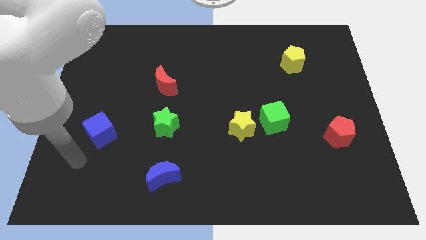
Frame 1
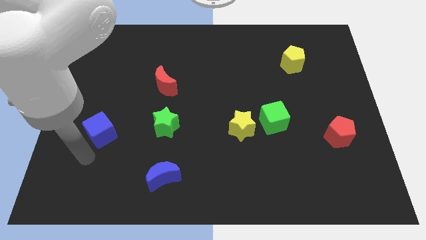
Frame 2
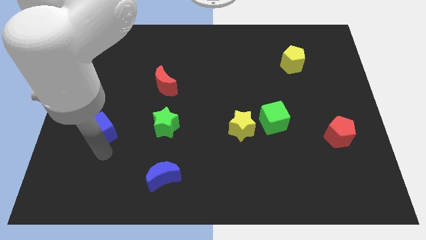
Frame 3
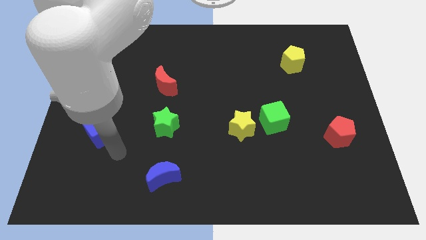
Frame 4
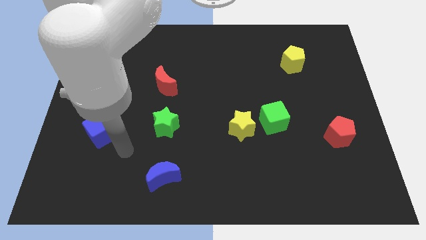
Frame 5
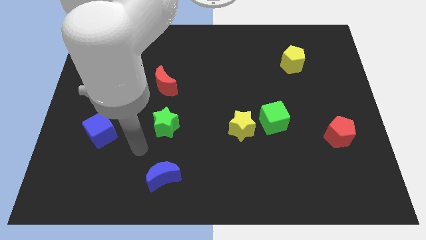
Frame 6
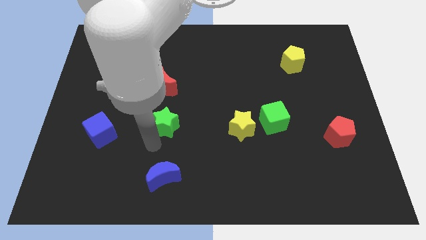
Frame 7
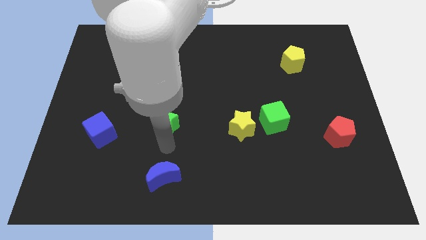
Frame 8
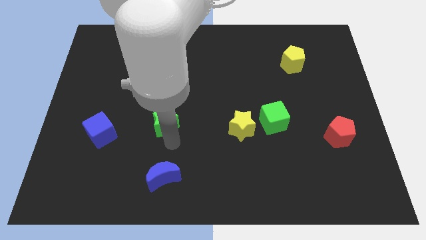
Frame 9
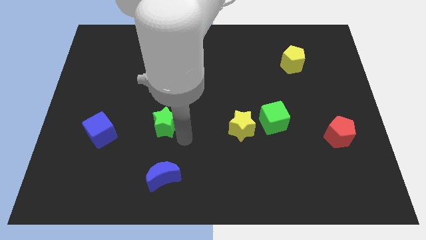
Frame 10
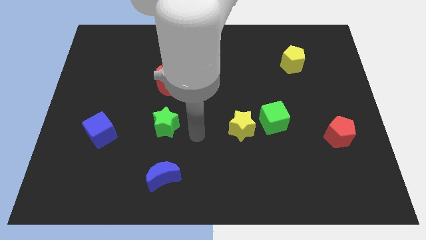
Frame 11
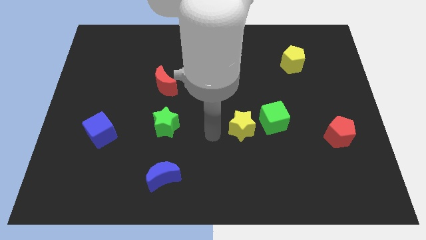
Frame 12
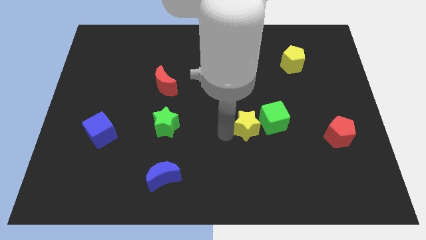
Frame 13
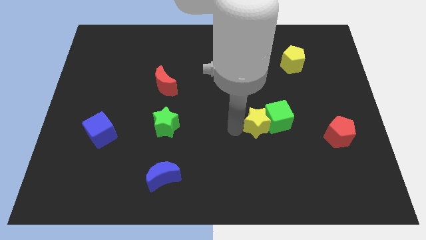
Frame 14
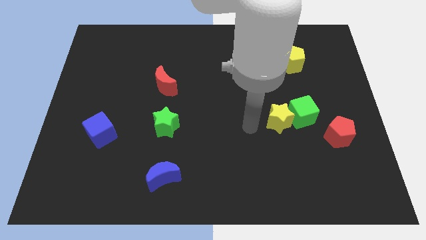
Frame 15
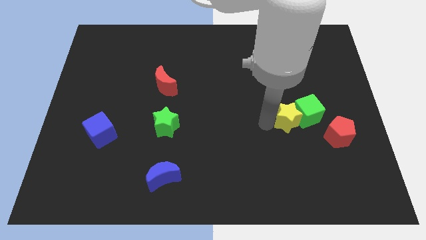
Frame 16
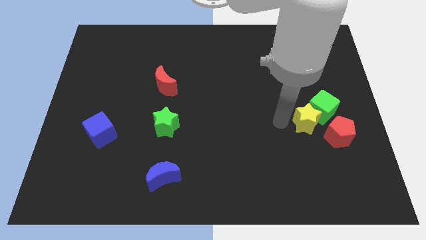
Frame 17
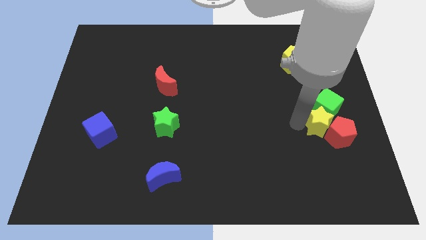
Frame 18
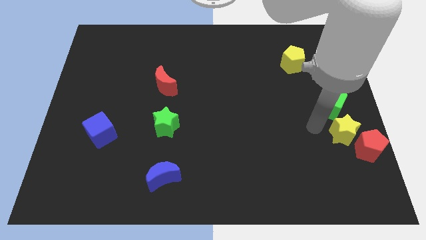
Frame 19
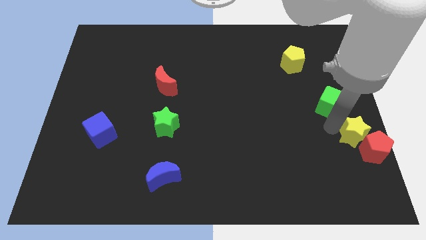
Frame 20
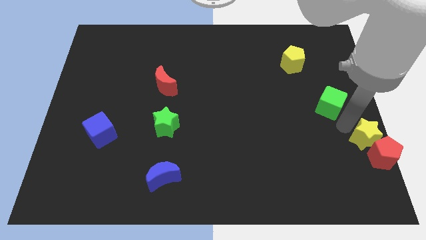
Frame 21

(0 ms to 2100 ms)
move the green cube away from the yellow star

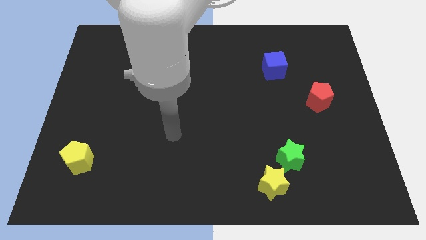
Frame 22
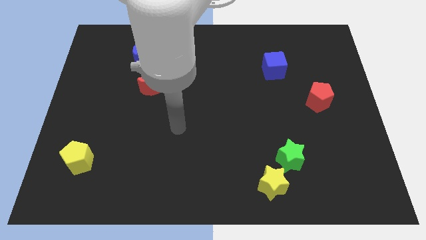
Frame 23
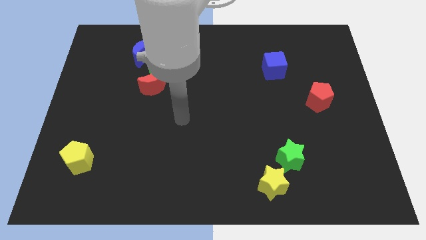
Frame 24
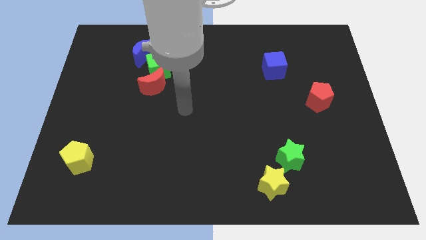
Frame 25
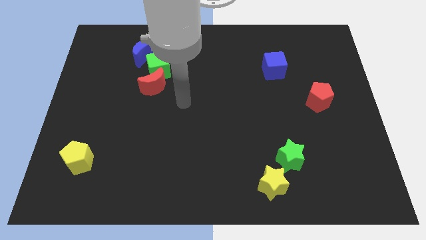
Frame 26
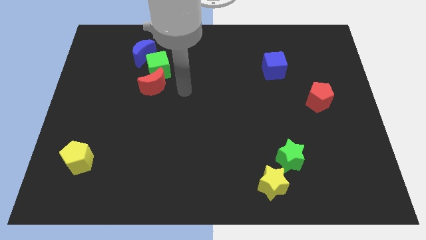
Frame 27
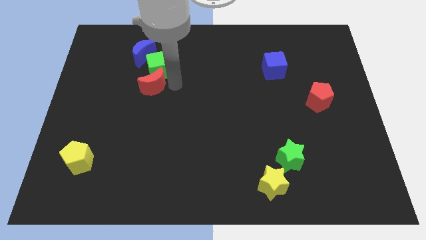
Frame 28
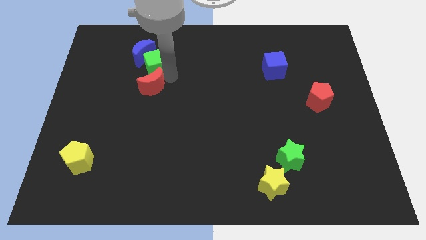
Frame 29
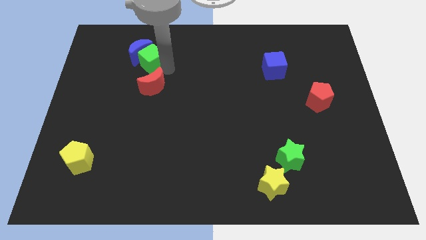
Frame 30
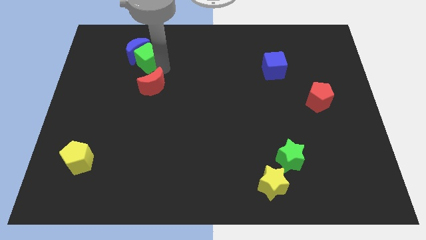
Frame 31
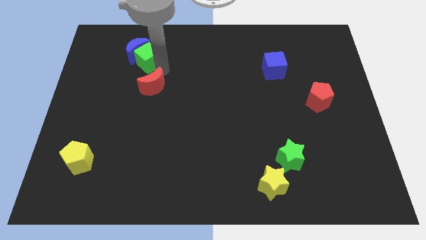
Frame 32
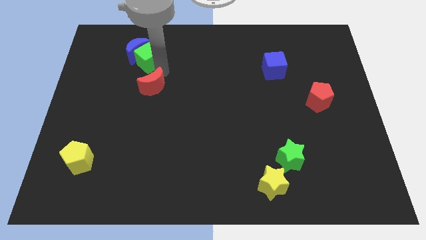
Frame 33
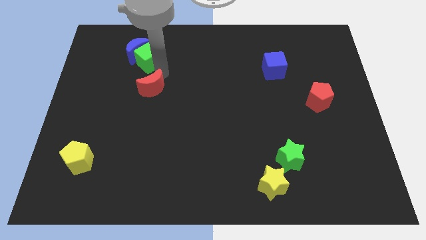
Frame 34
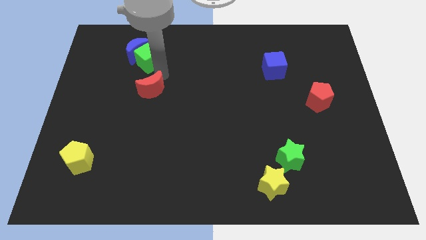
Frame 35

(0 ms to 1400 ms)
move the red moon away from the green cube

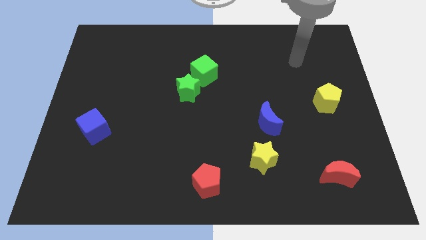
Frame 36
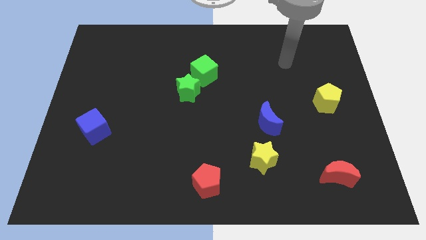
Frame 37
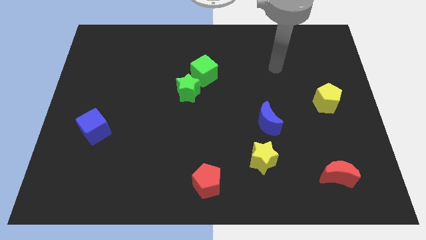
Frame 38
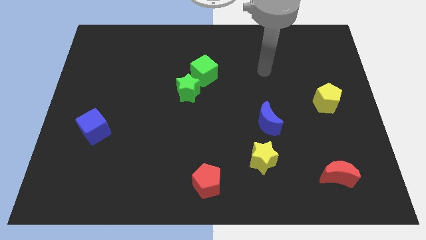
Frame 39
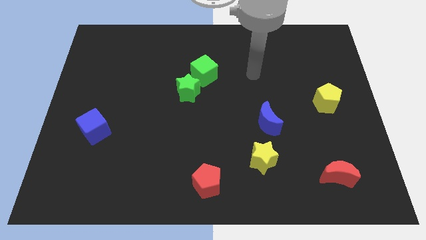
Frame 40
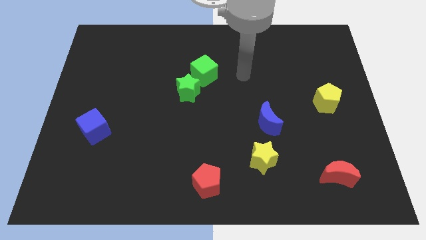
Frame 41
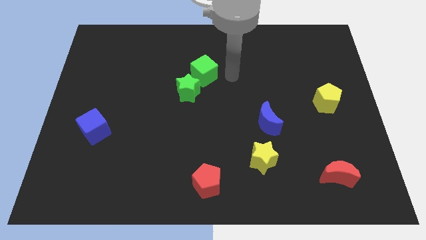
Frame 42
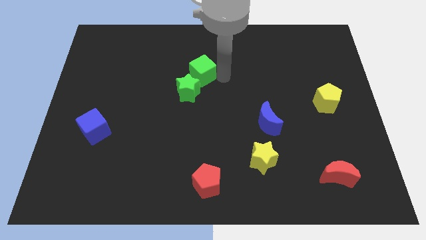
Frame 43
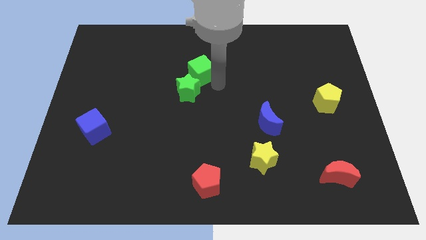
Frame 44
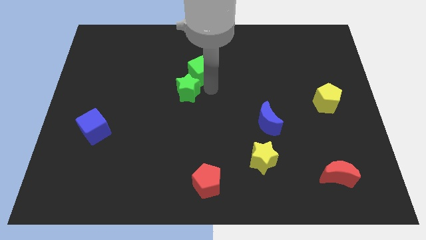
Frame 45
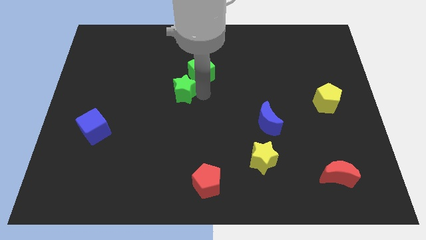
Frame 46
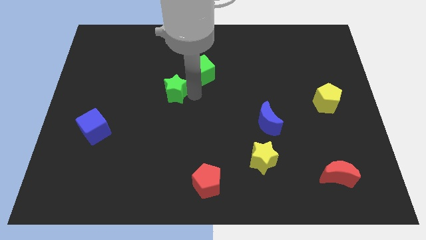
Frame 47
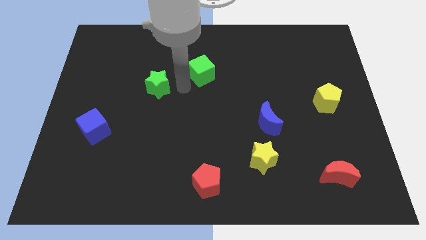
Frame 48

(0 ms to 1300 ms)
separate the green cube from the green star

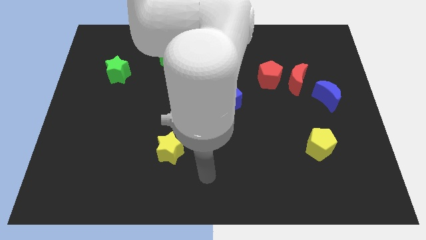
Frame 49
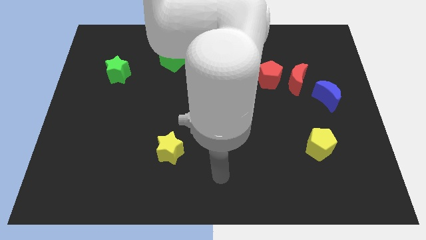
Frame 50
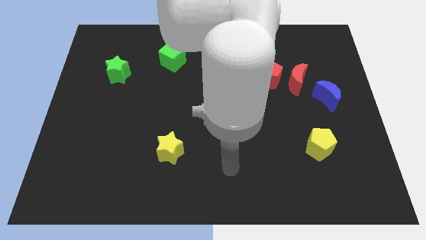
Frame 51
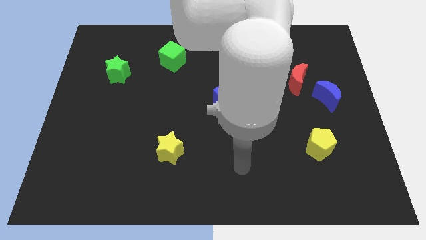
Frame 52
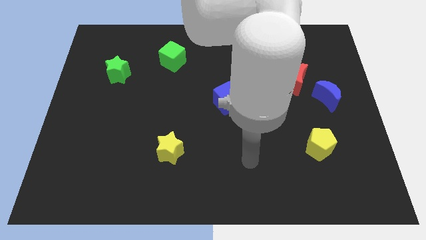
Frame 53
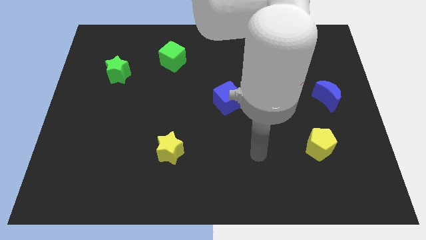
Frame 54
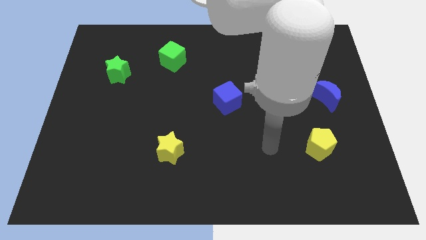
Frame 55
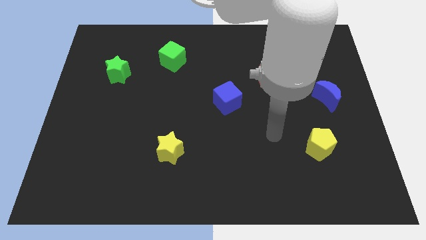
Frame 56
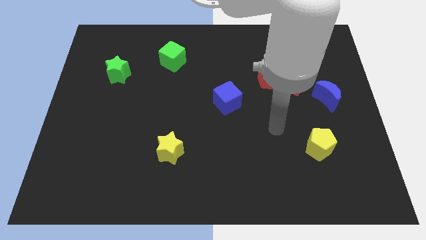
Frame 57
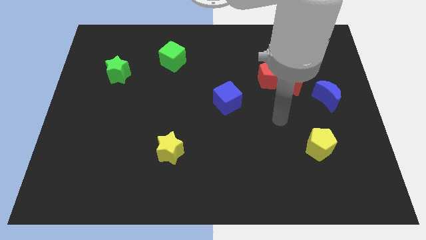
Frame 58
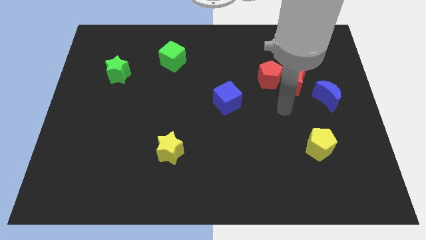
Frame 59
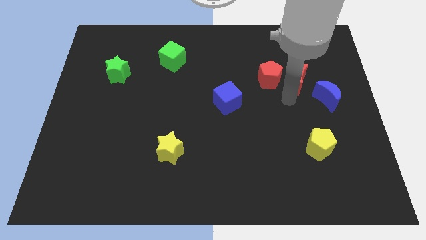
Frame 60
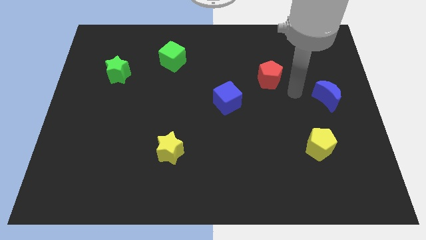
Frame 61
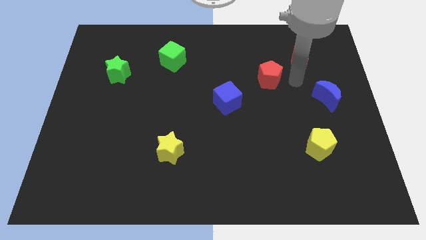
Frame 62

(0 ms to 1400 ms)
pull the red pentagon apart from the red moon

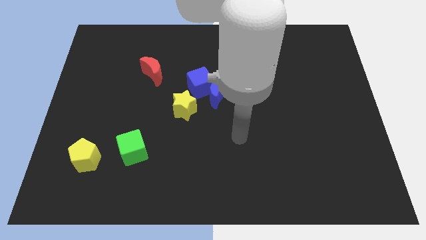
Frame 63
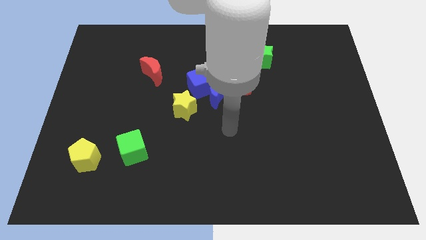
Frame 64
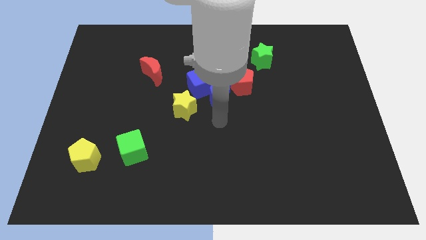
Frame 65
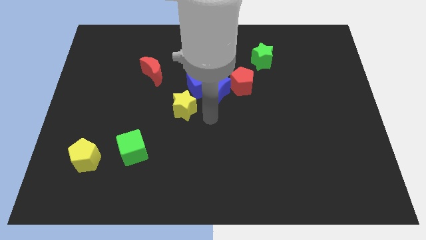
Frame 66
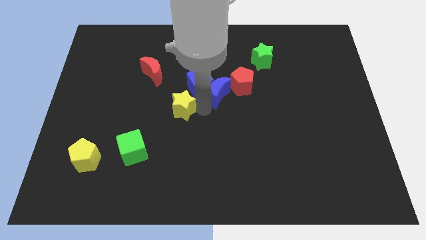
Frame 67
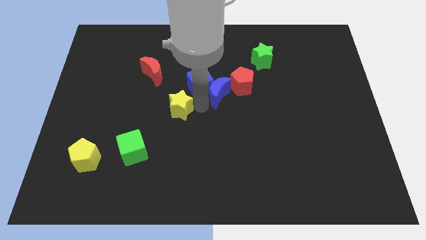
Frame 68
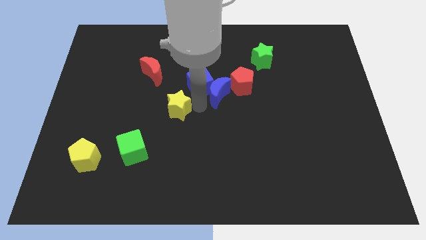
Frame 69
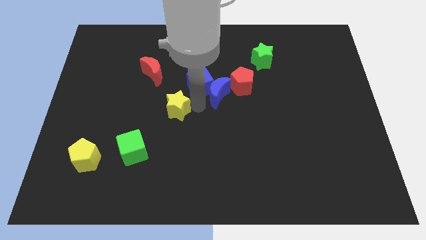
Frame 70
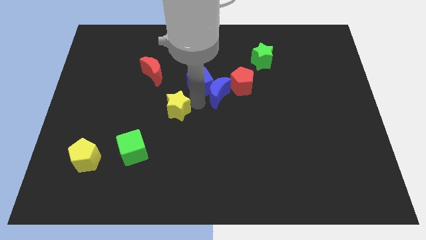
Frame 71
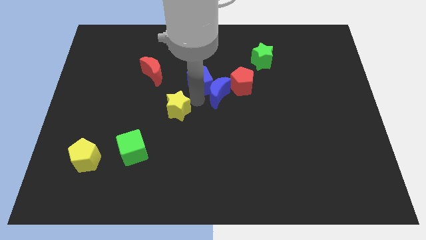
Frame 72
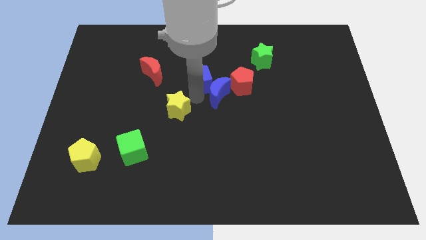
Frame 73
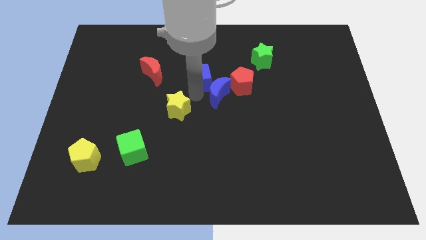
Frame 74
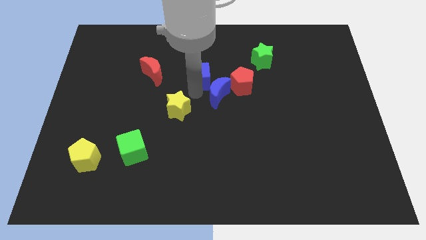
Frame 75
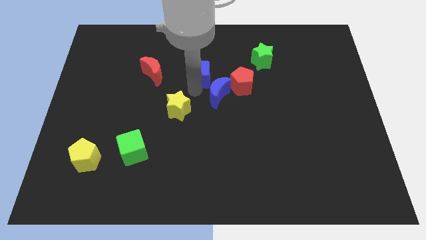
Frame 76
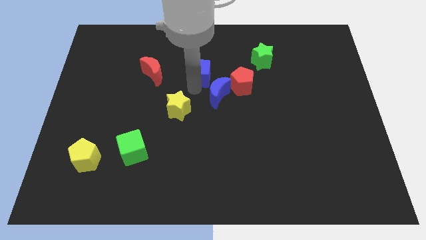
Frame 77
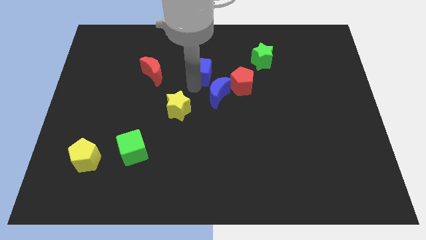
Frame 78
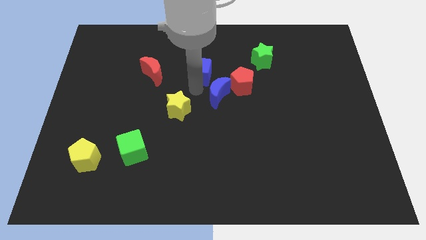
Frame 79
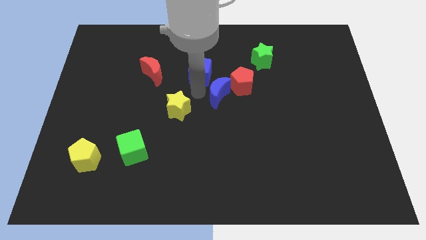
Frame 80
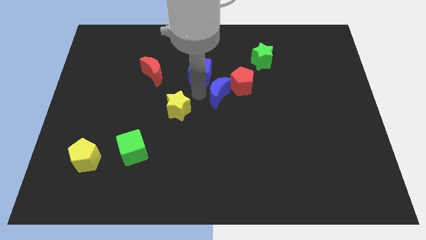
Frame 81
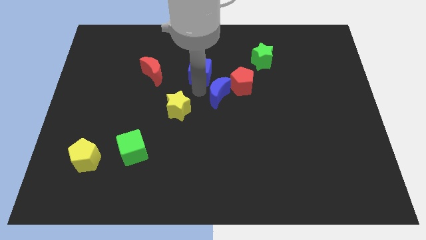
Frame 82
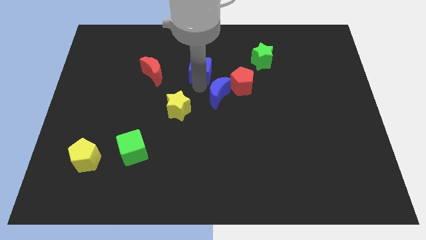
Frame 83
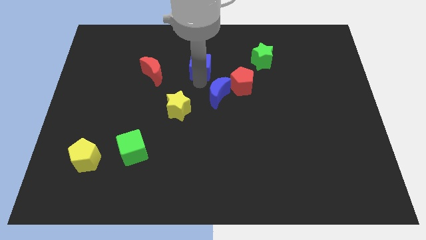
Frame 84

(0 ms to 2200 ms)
separate the blue cube from the blue moon and yellow star

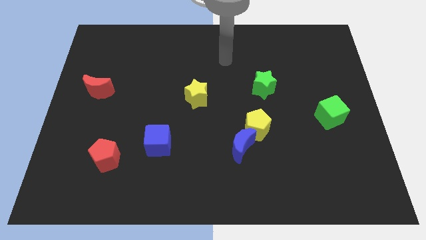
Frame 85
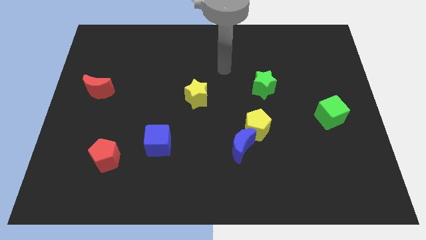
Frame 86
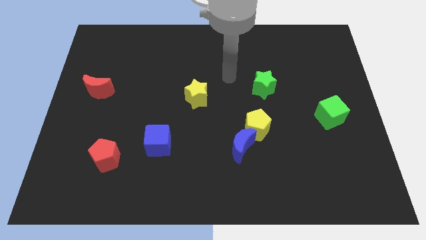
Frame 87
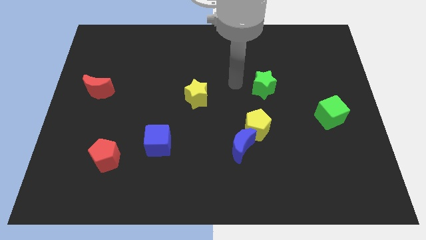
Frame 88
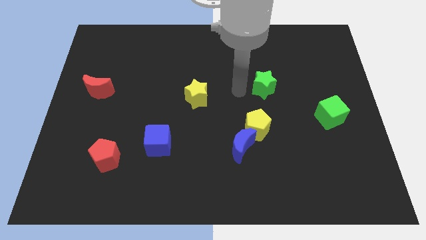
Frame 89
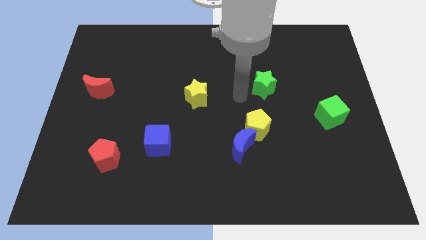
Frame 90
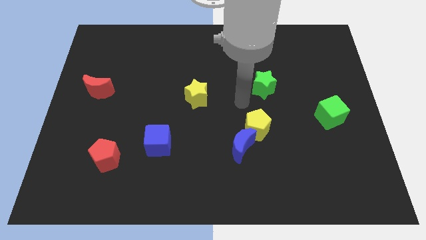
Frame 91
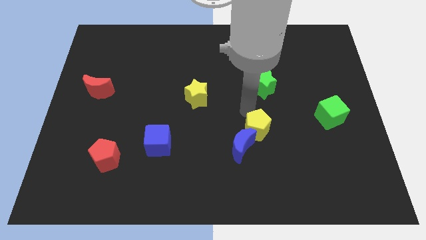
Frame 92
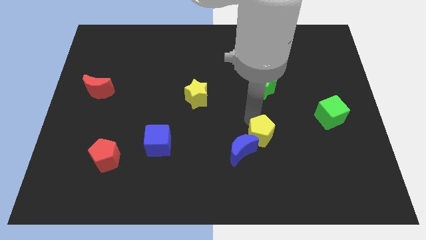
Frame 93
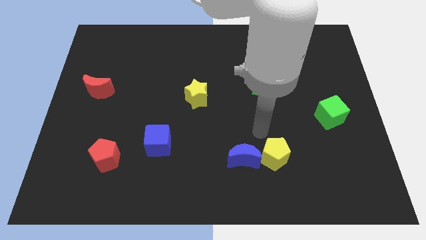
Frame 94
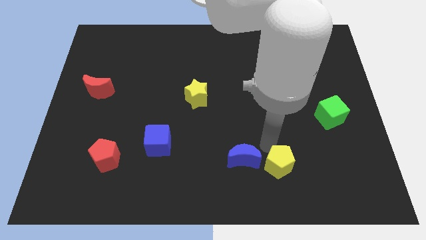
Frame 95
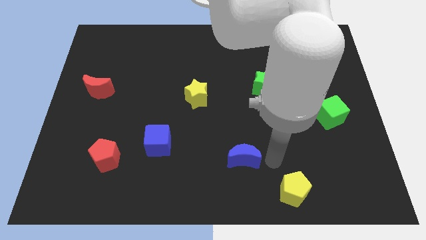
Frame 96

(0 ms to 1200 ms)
move the blue moon away from the yellow pentagon
